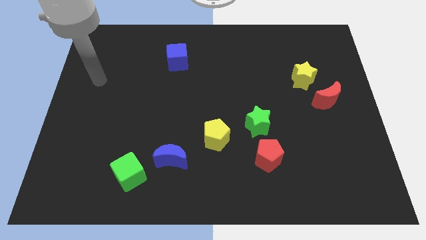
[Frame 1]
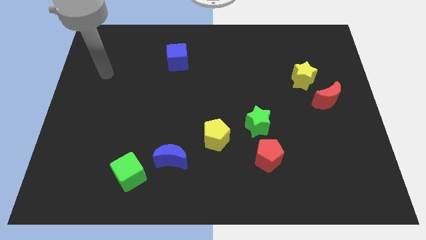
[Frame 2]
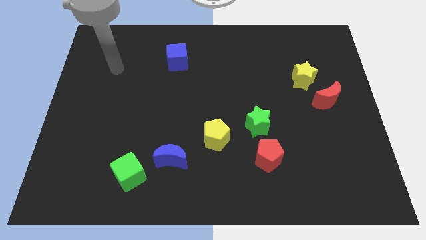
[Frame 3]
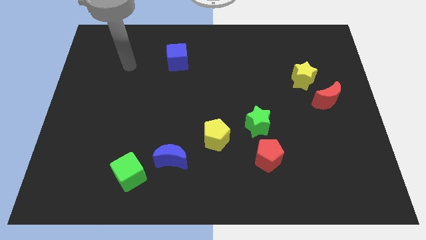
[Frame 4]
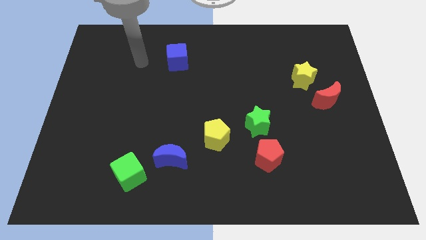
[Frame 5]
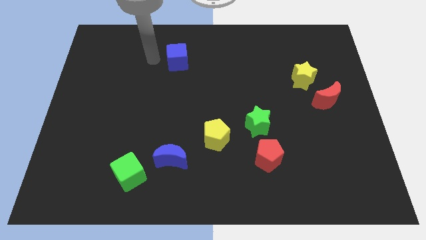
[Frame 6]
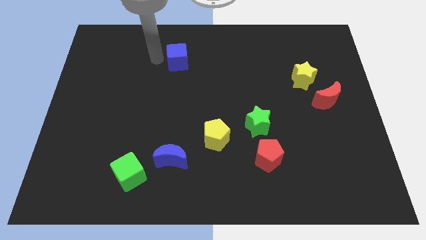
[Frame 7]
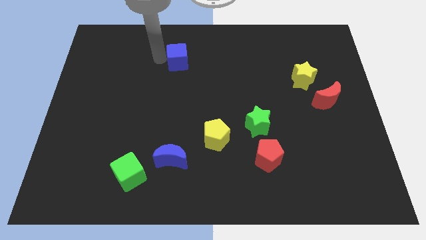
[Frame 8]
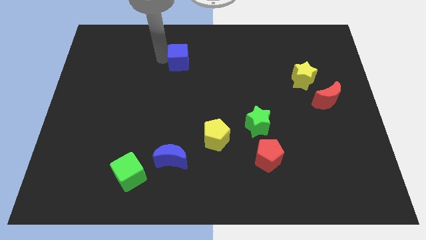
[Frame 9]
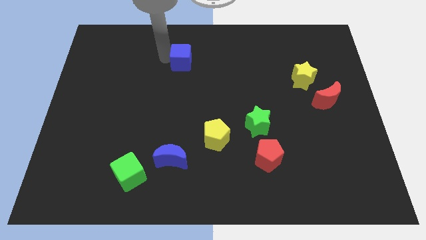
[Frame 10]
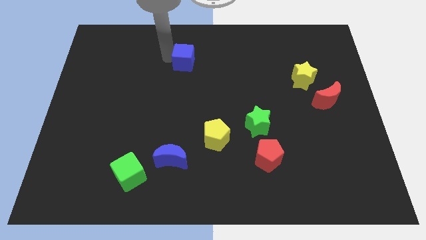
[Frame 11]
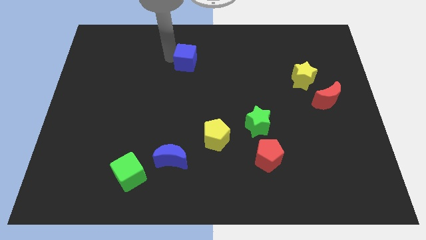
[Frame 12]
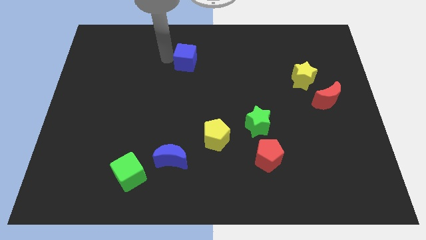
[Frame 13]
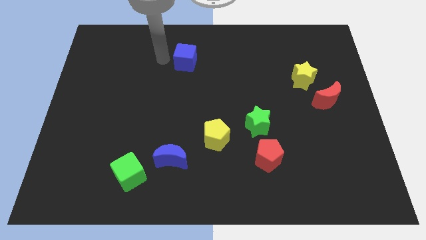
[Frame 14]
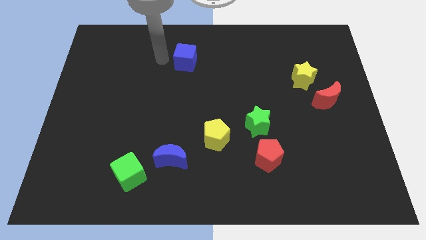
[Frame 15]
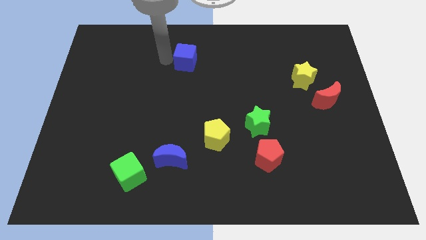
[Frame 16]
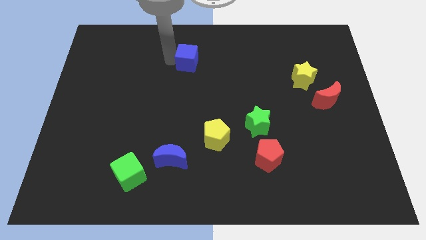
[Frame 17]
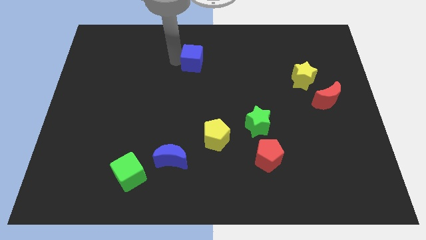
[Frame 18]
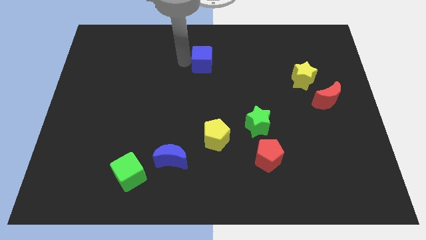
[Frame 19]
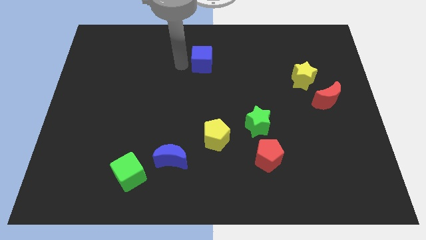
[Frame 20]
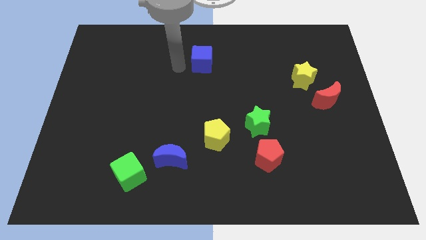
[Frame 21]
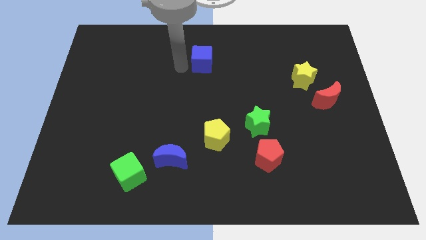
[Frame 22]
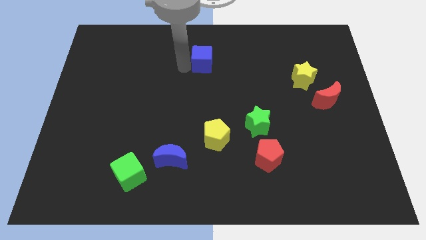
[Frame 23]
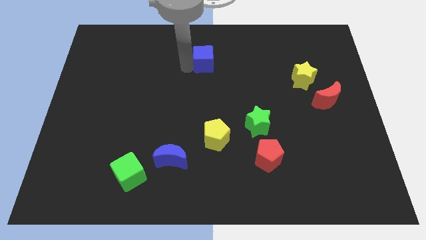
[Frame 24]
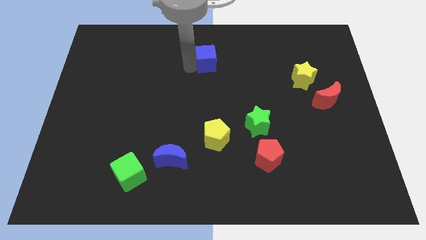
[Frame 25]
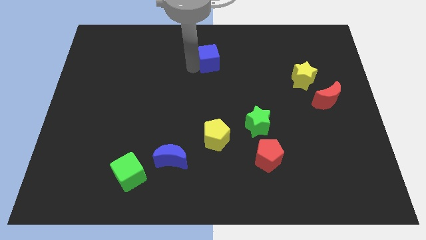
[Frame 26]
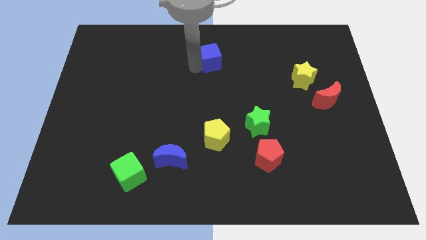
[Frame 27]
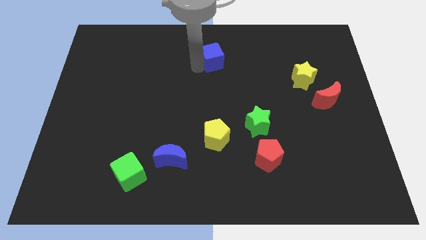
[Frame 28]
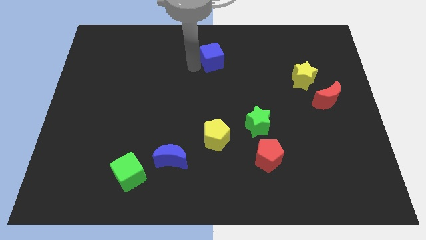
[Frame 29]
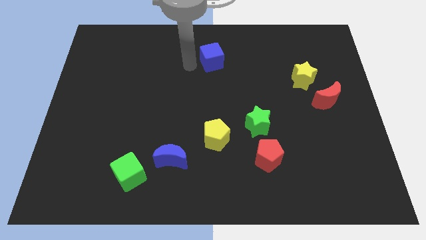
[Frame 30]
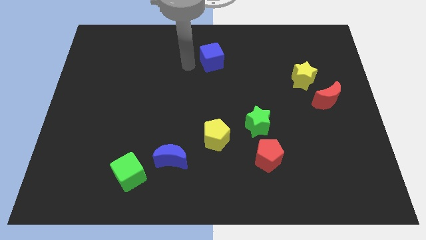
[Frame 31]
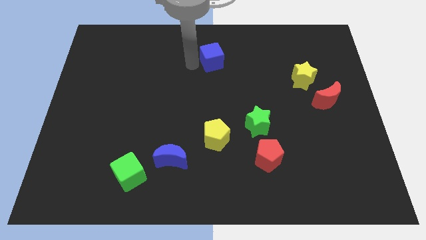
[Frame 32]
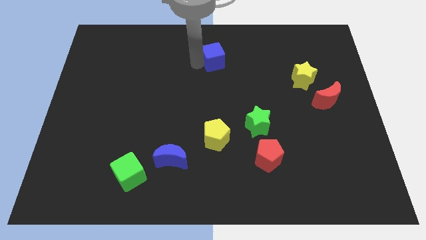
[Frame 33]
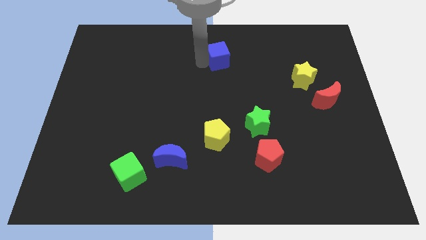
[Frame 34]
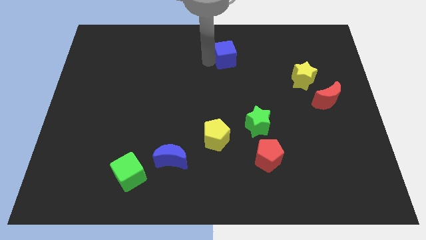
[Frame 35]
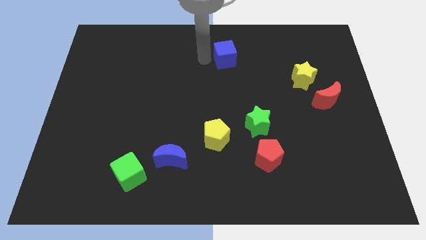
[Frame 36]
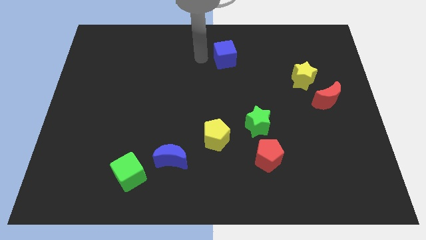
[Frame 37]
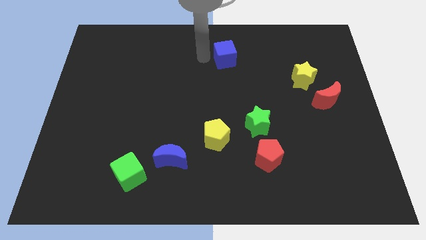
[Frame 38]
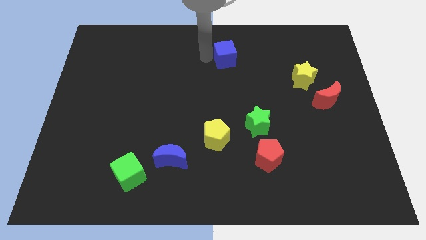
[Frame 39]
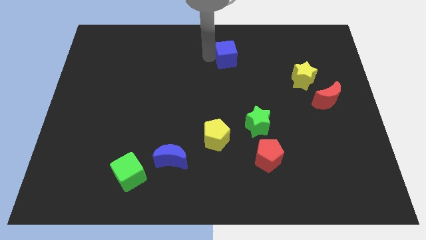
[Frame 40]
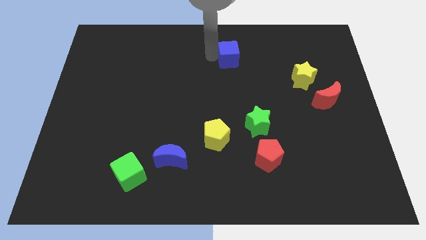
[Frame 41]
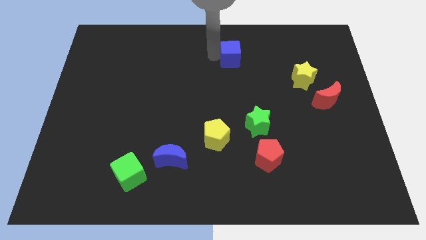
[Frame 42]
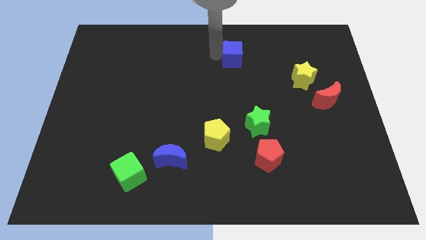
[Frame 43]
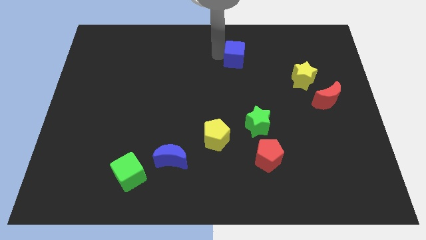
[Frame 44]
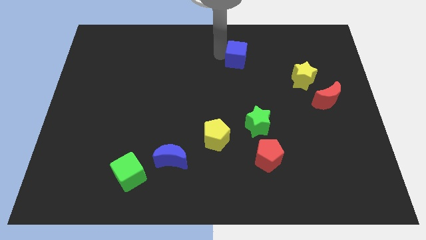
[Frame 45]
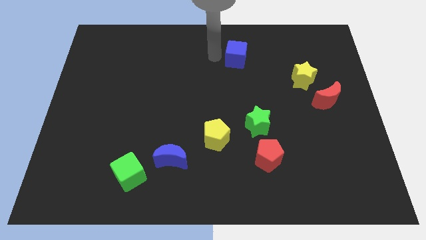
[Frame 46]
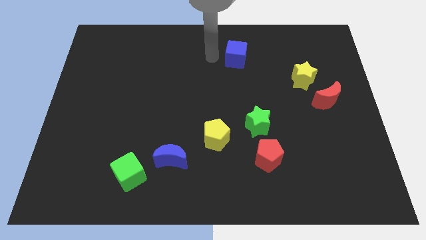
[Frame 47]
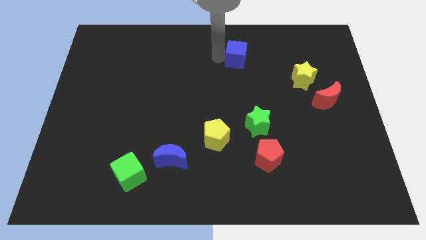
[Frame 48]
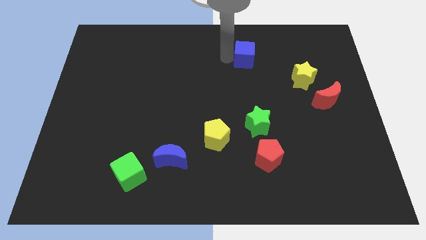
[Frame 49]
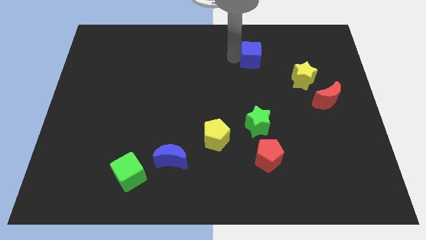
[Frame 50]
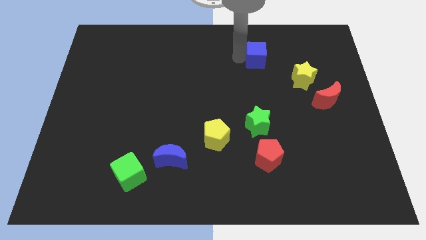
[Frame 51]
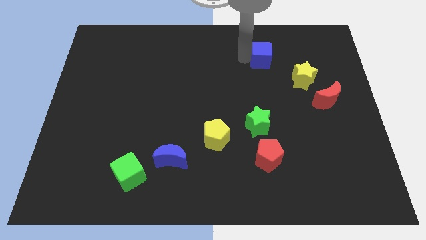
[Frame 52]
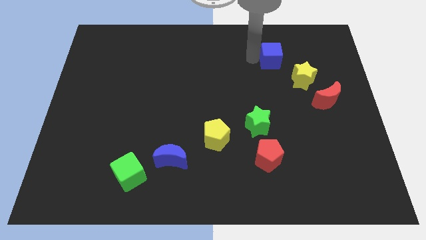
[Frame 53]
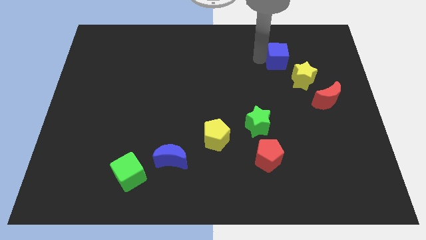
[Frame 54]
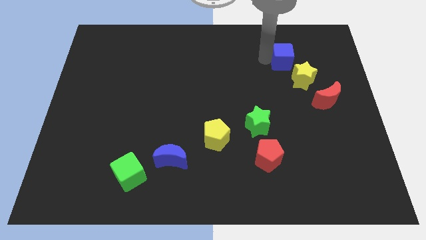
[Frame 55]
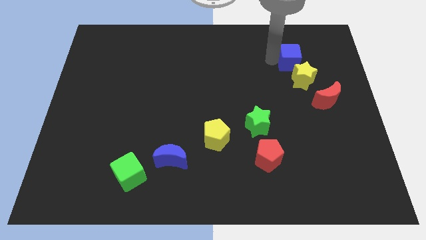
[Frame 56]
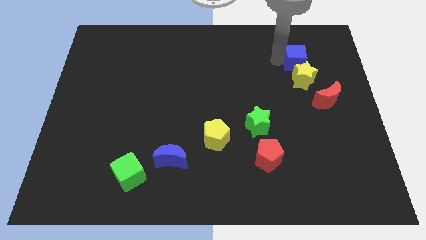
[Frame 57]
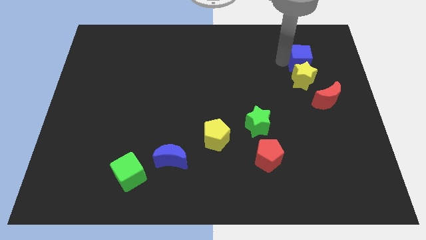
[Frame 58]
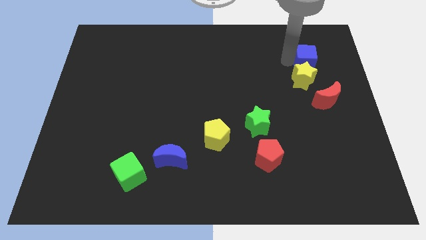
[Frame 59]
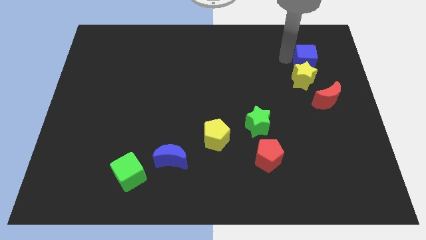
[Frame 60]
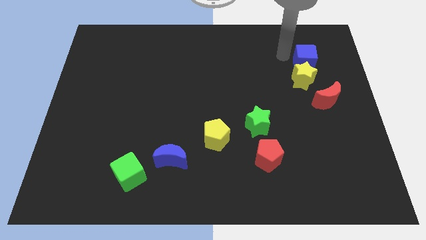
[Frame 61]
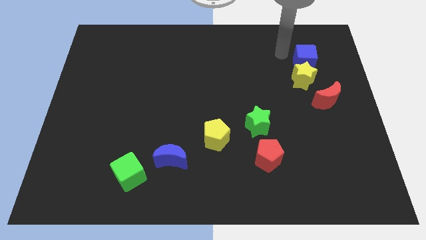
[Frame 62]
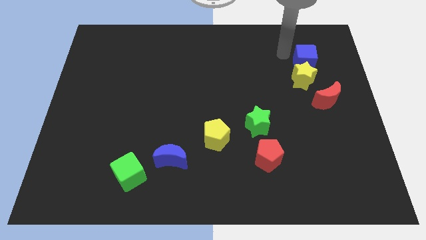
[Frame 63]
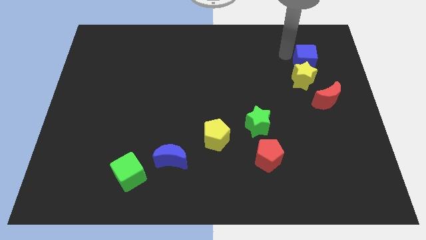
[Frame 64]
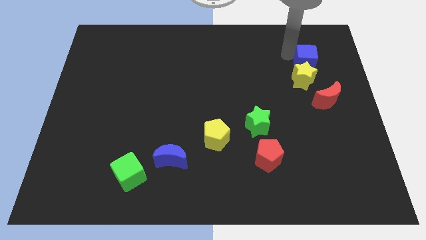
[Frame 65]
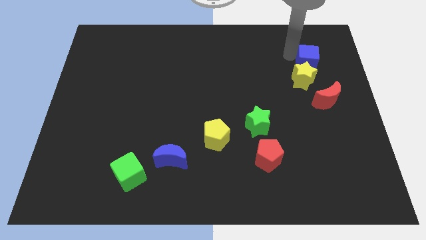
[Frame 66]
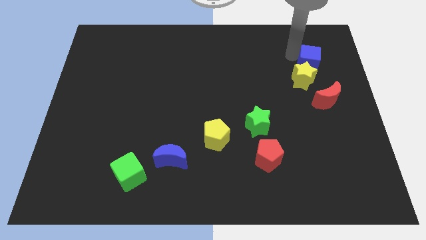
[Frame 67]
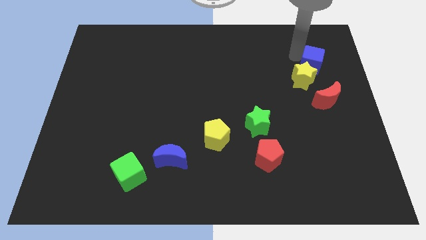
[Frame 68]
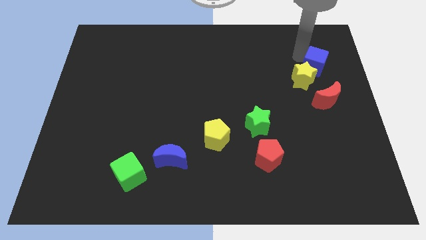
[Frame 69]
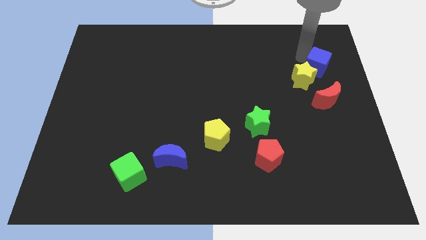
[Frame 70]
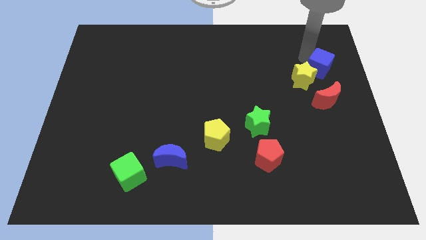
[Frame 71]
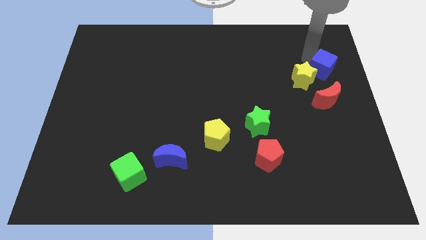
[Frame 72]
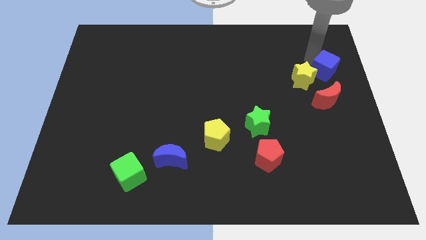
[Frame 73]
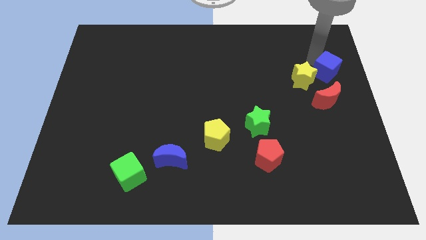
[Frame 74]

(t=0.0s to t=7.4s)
put the blue cube to the right side of the board
